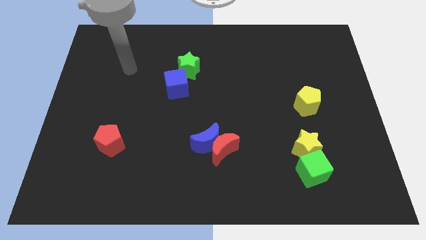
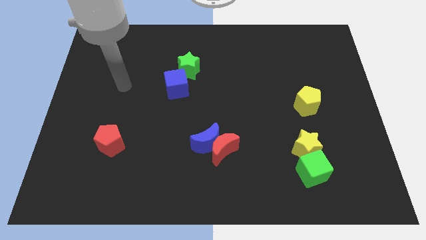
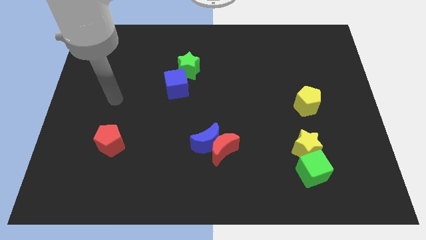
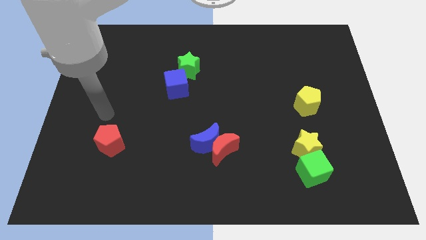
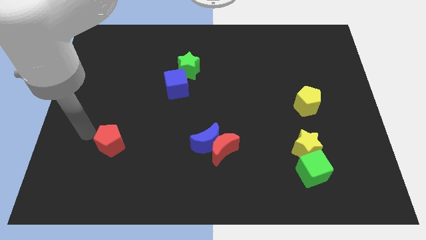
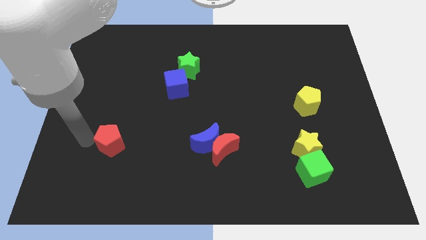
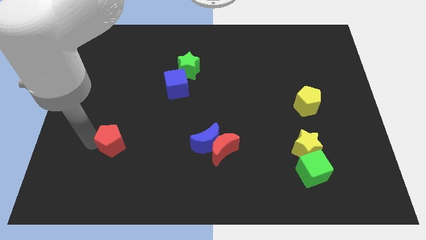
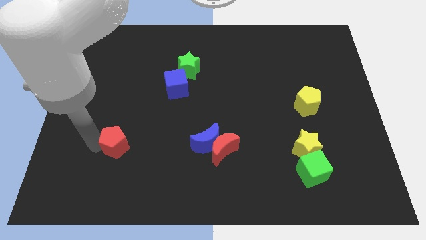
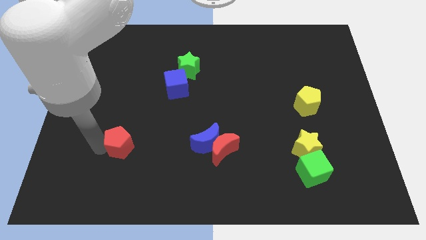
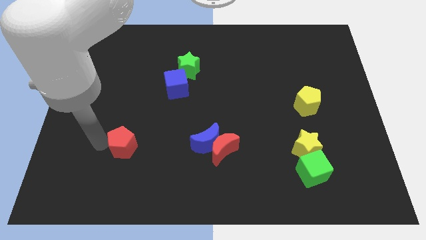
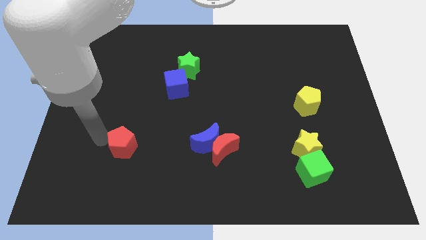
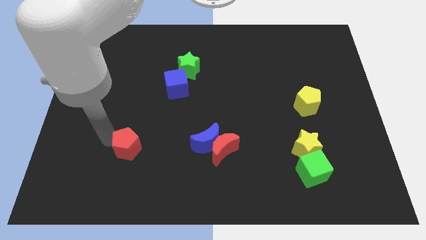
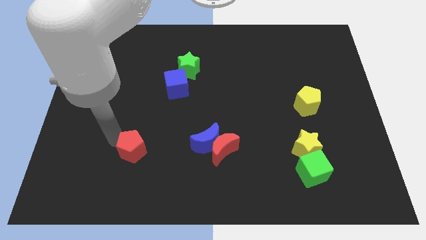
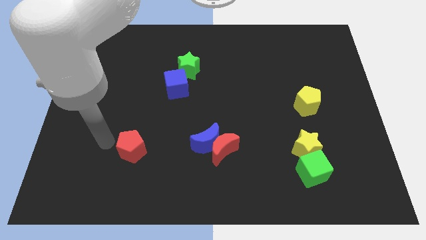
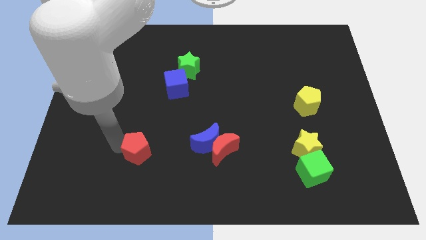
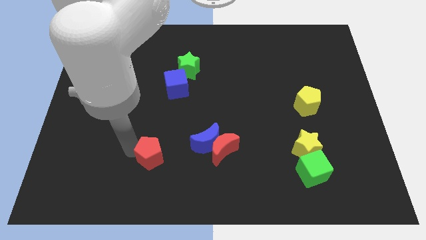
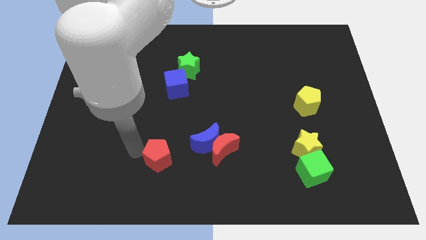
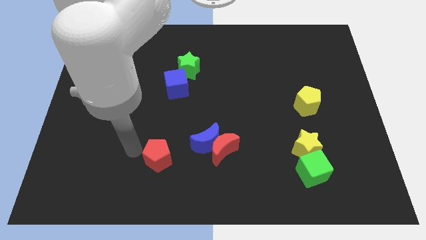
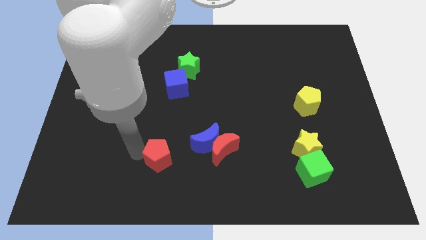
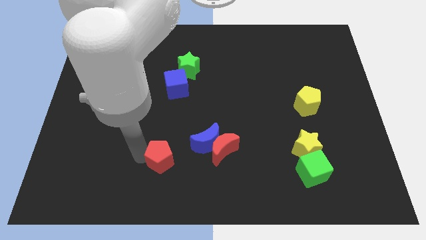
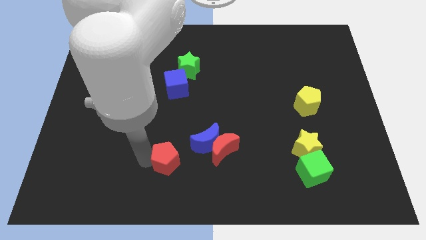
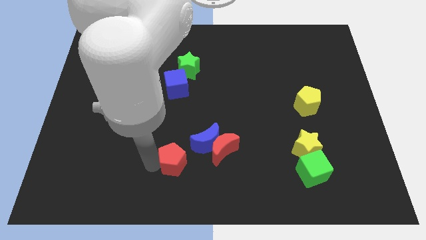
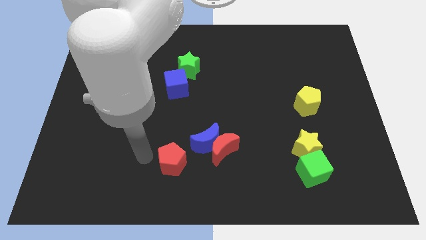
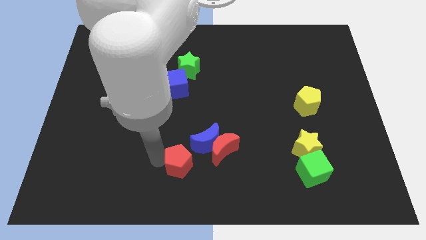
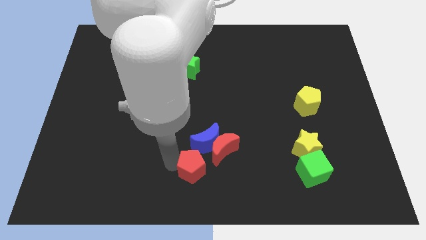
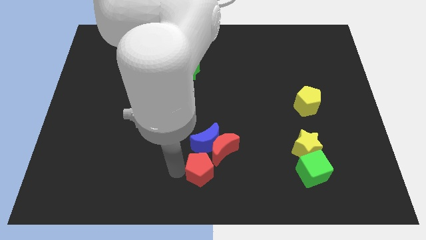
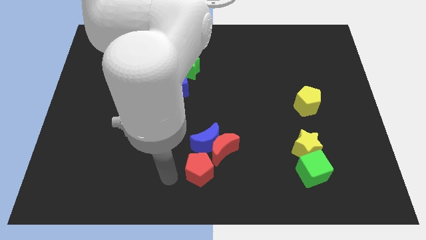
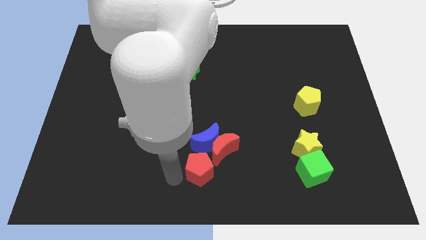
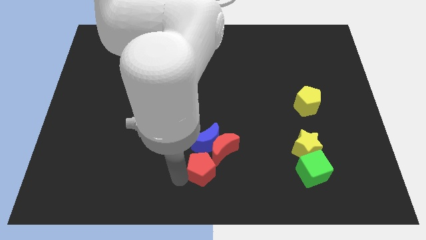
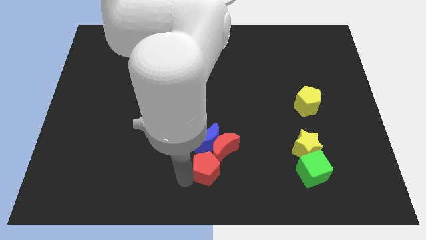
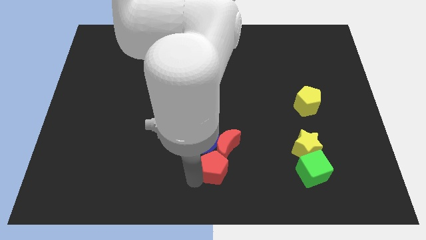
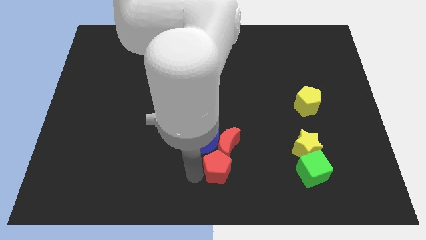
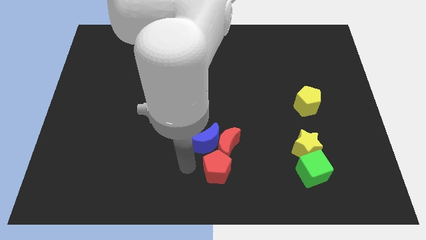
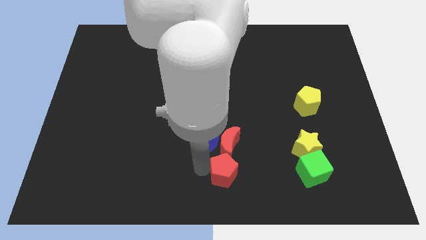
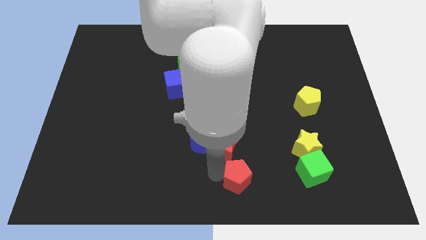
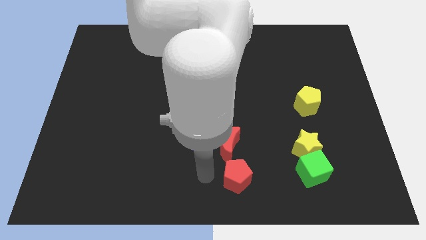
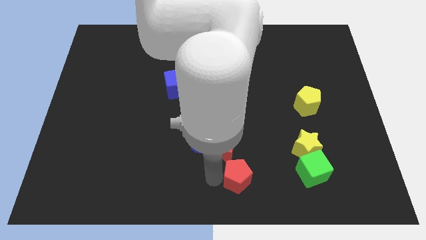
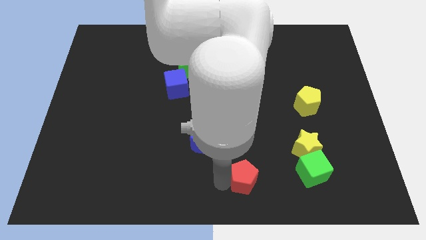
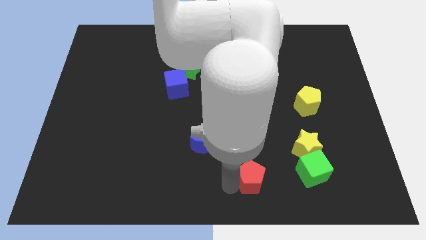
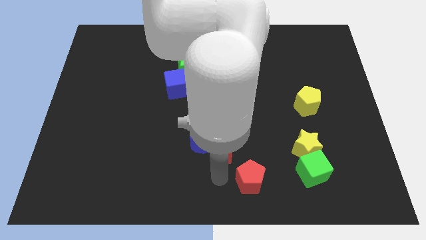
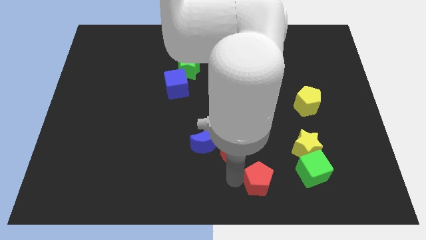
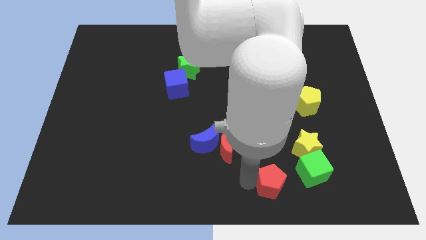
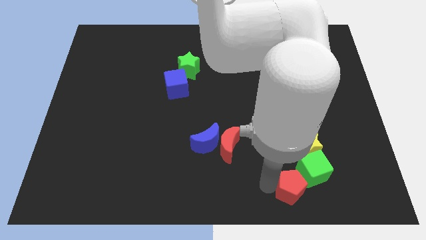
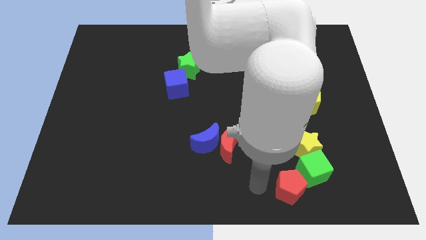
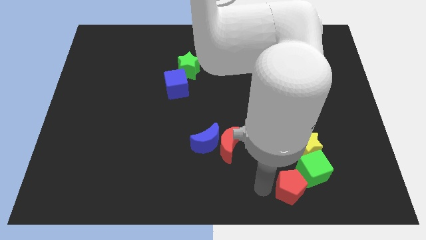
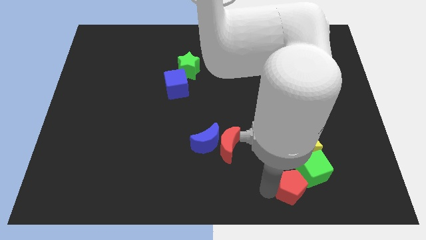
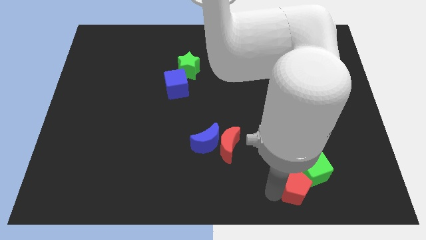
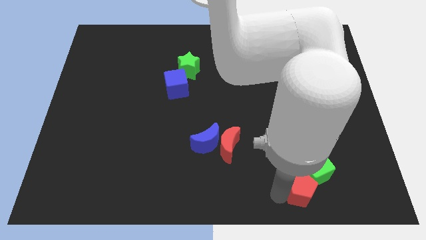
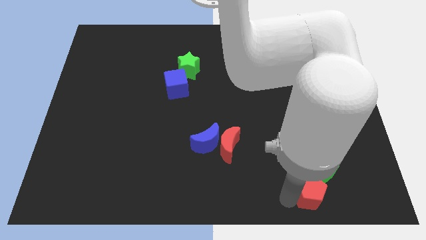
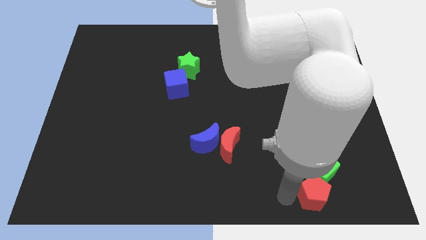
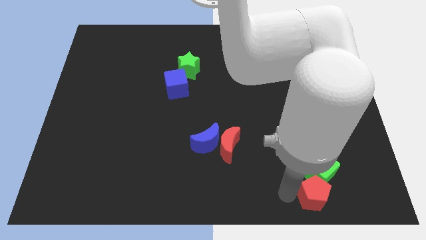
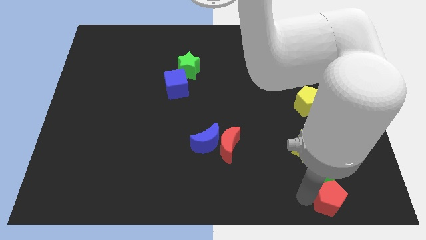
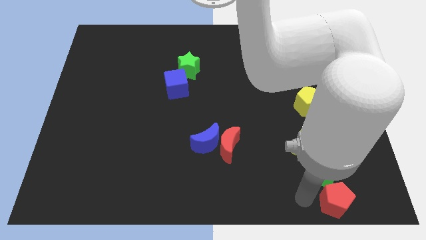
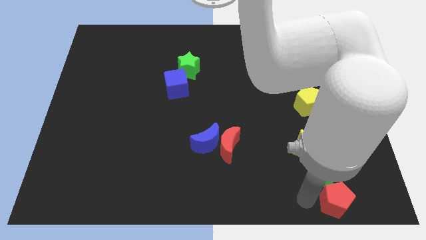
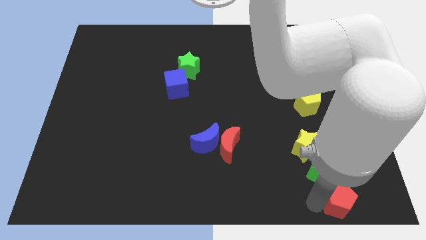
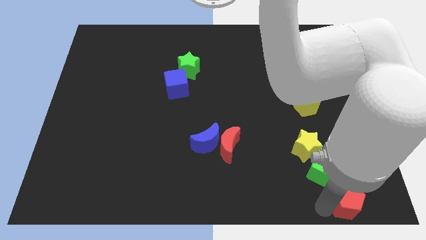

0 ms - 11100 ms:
slide the red pentagon to the bottom right

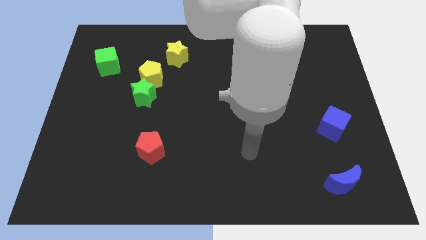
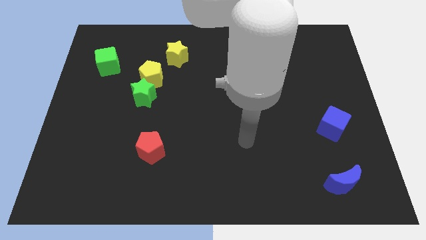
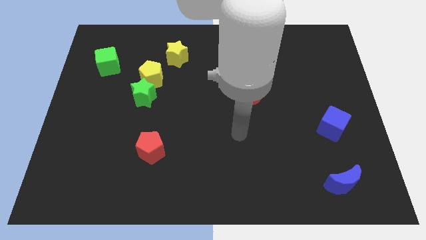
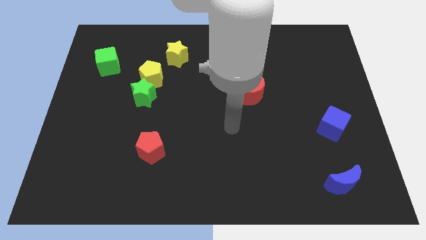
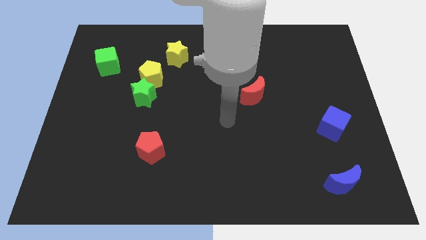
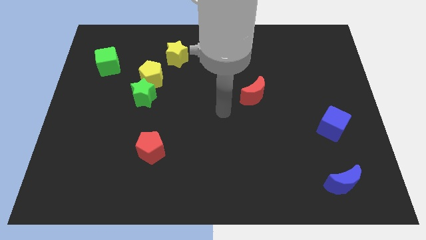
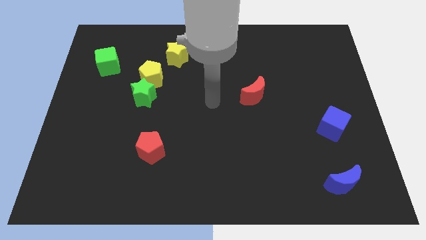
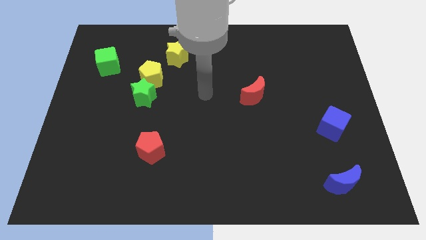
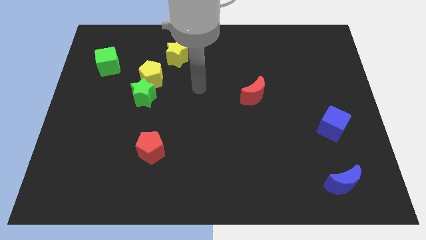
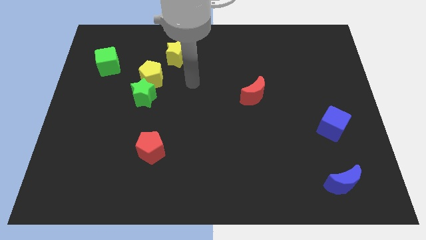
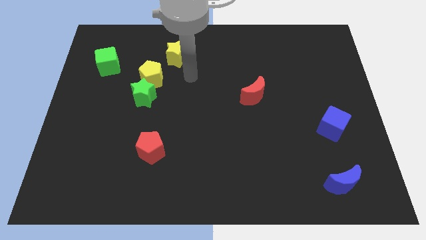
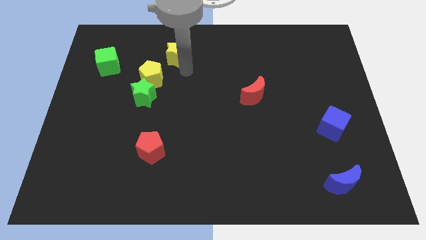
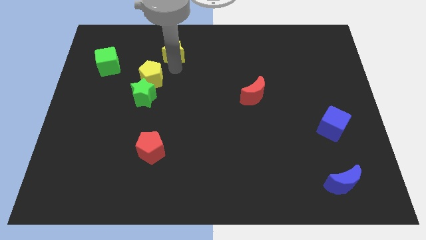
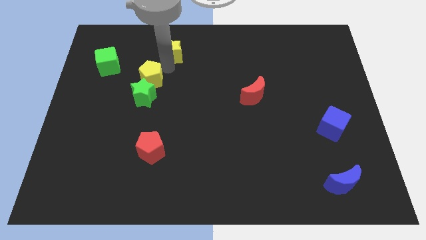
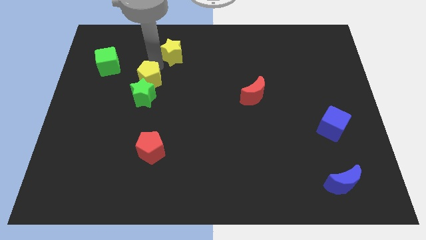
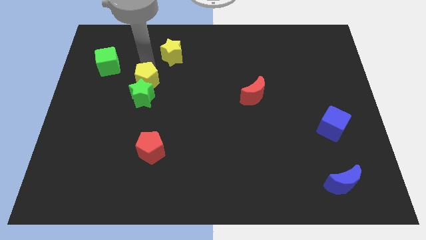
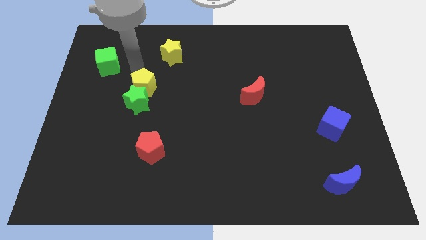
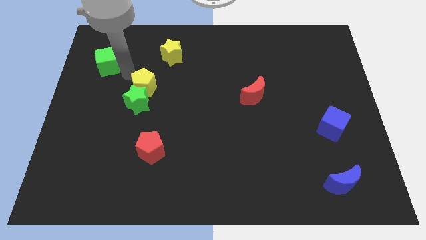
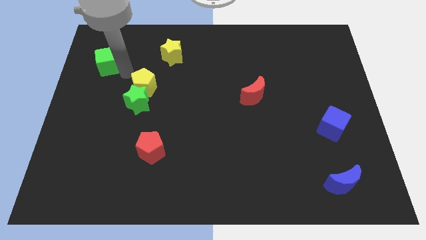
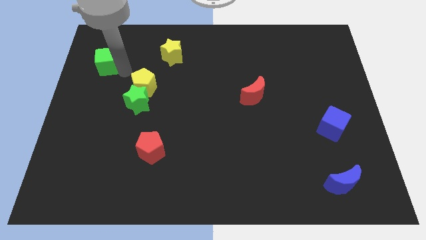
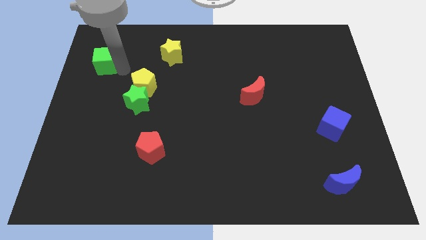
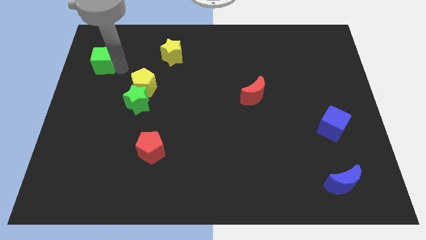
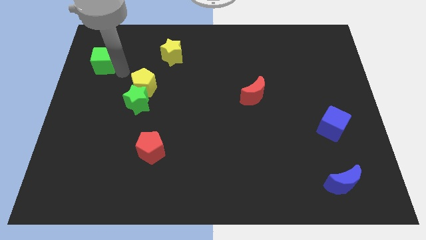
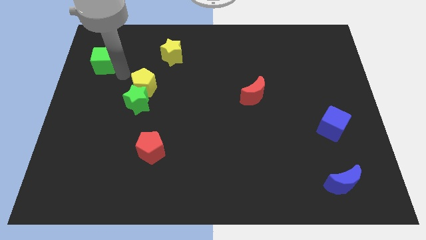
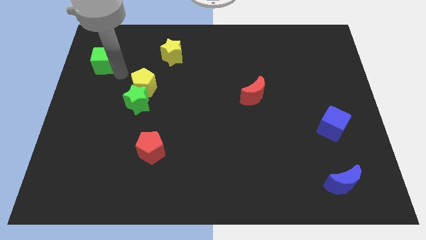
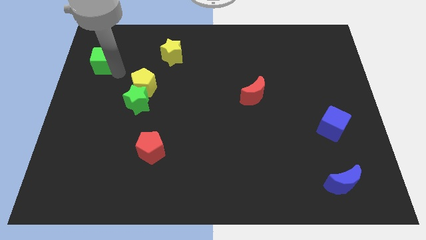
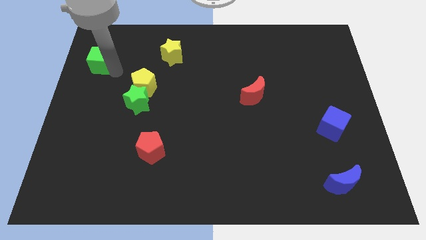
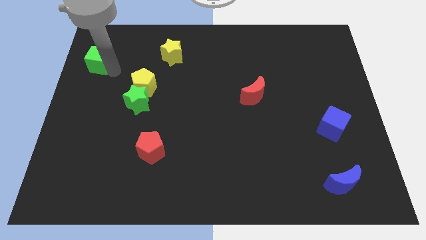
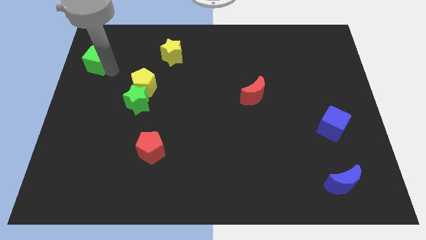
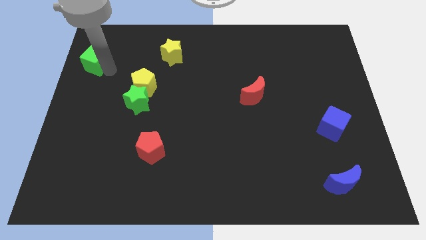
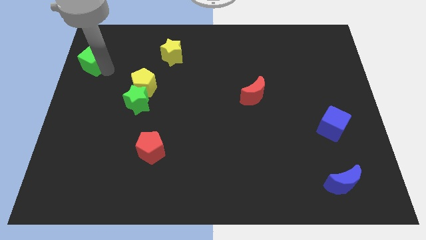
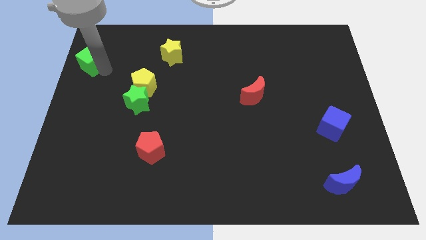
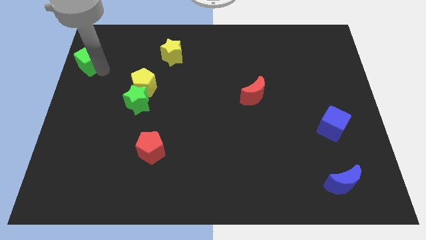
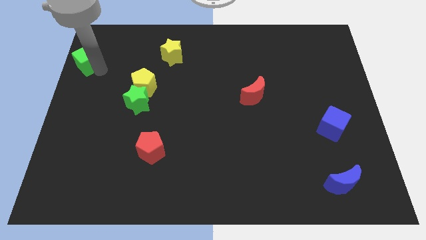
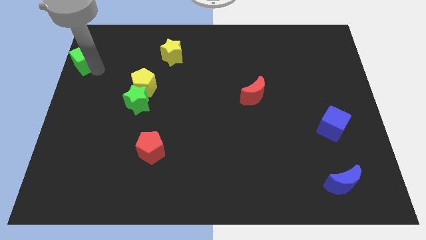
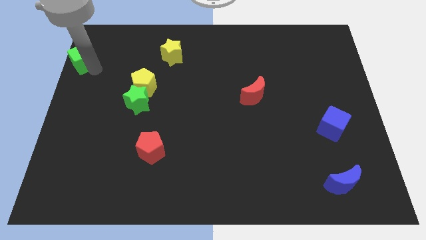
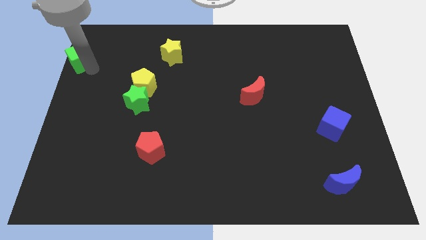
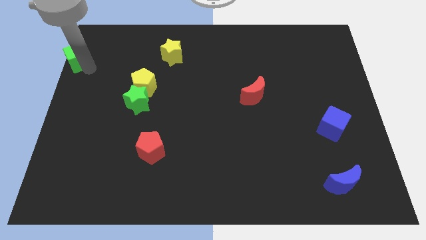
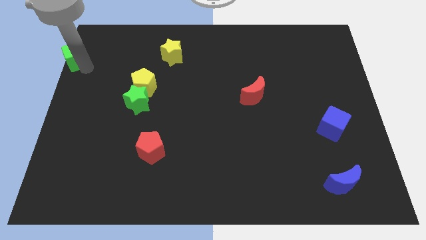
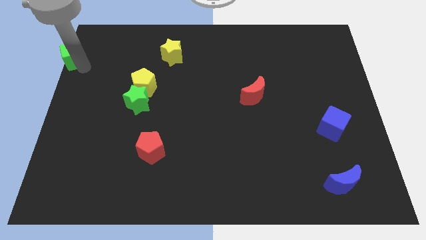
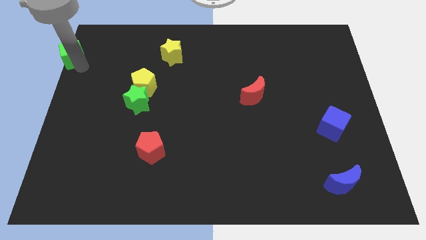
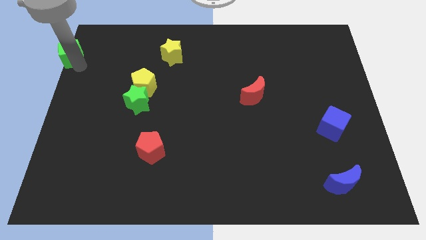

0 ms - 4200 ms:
slide the green cube to the top left of the board
